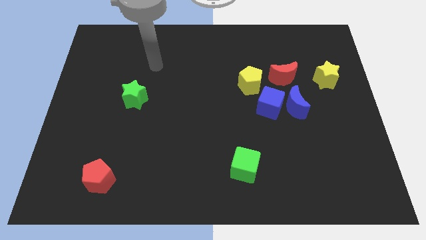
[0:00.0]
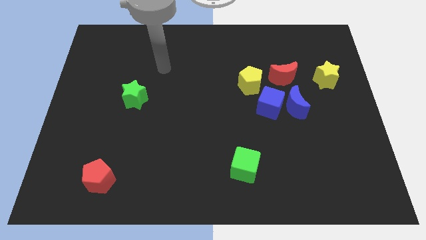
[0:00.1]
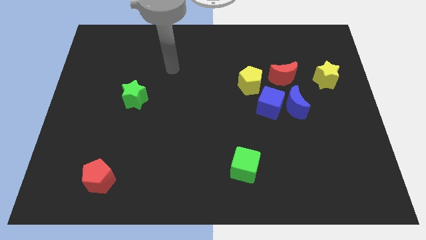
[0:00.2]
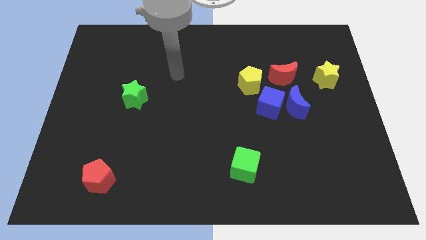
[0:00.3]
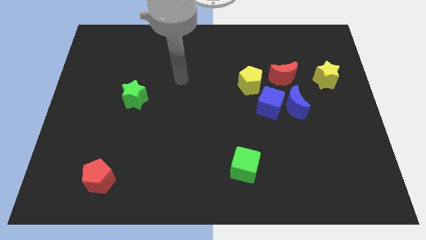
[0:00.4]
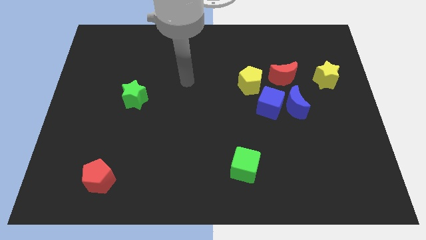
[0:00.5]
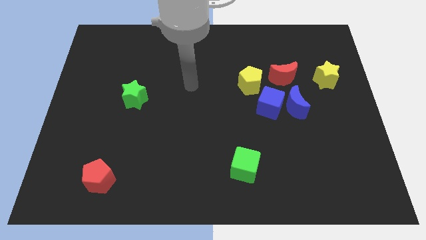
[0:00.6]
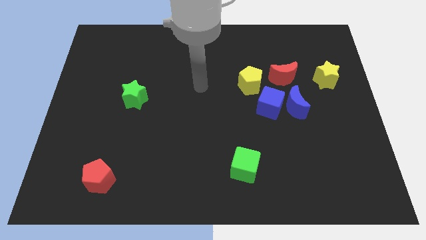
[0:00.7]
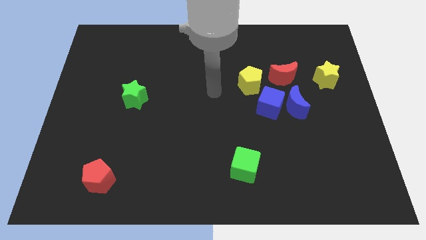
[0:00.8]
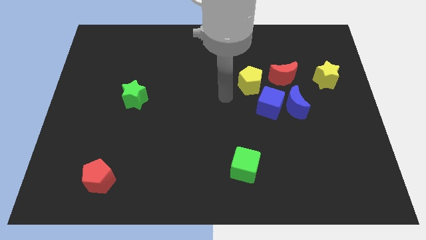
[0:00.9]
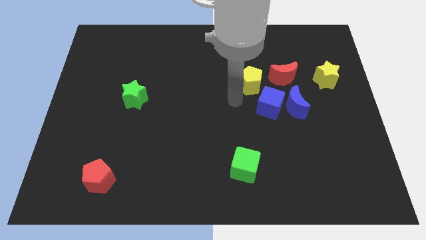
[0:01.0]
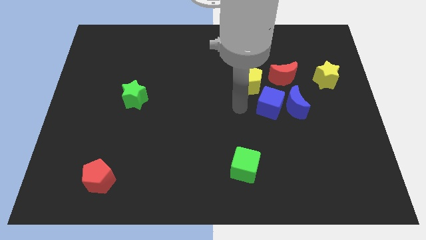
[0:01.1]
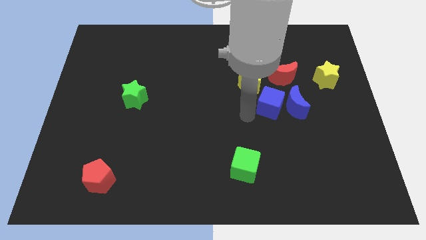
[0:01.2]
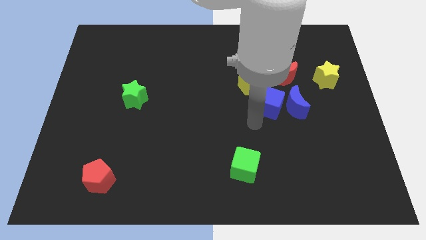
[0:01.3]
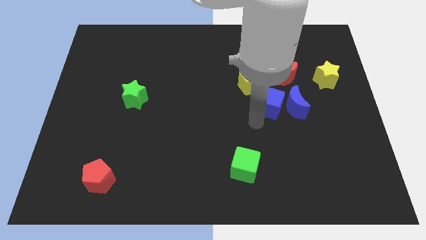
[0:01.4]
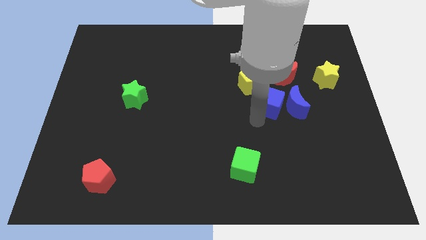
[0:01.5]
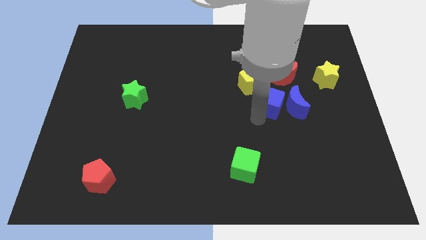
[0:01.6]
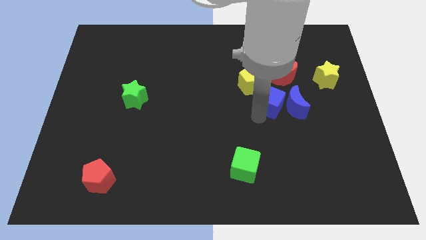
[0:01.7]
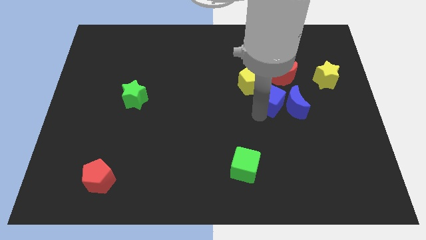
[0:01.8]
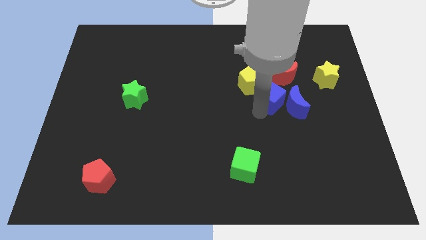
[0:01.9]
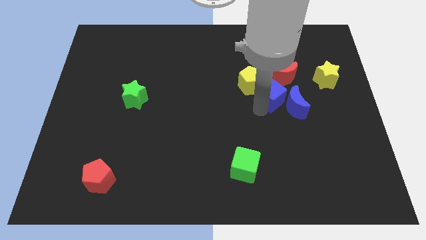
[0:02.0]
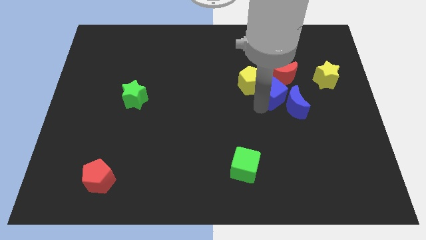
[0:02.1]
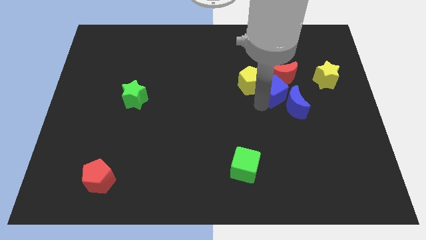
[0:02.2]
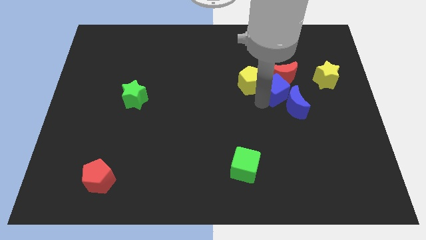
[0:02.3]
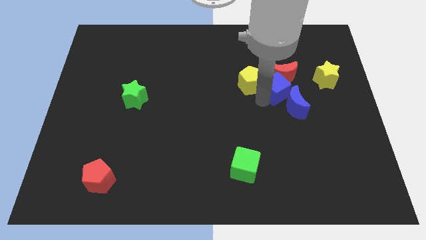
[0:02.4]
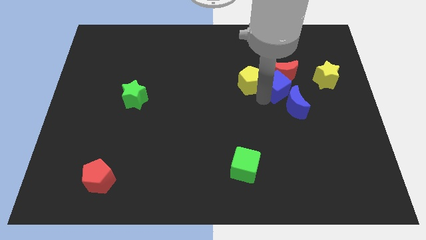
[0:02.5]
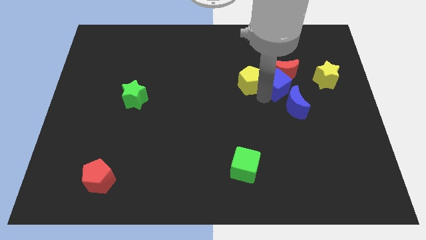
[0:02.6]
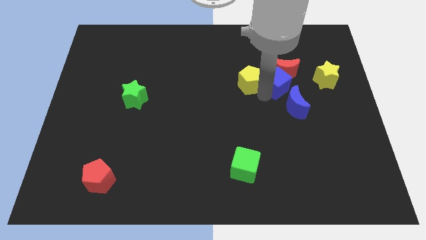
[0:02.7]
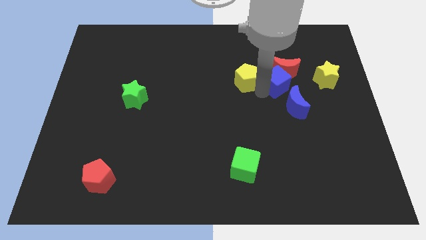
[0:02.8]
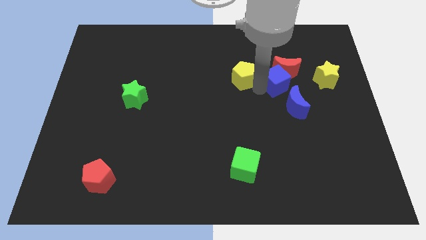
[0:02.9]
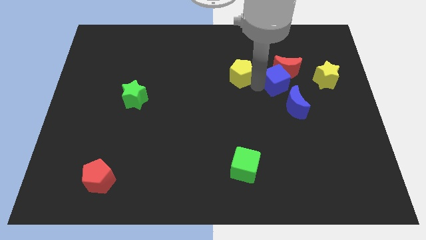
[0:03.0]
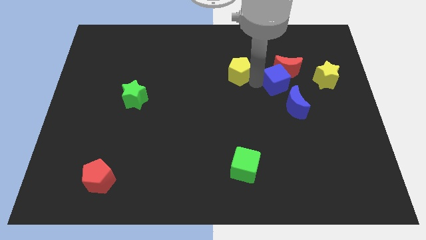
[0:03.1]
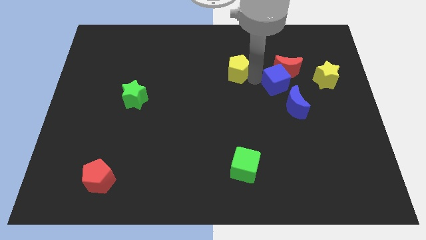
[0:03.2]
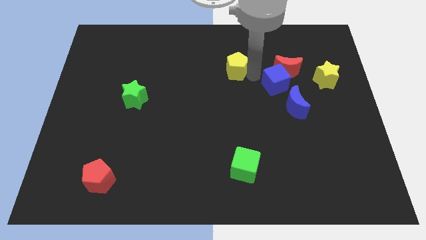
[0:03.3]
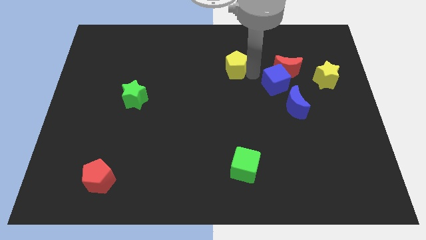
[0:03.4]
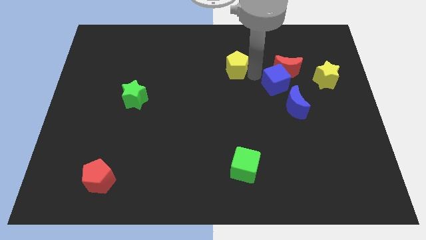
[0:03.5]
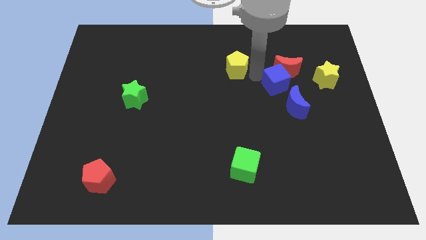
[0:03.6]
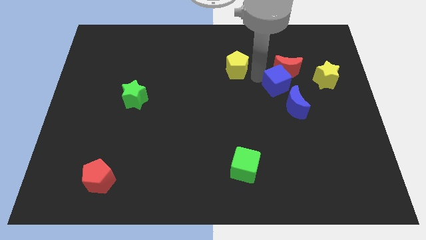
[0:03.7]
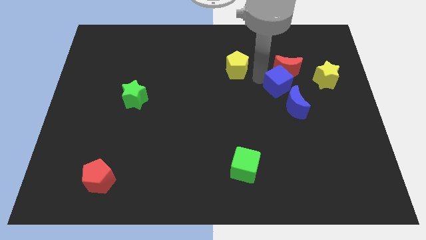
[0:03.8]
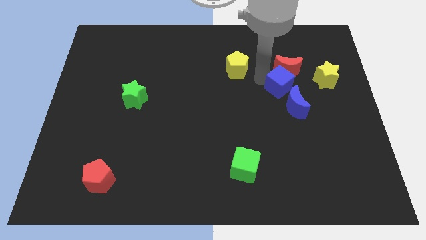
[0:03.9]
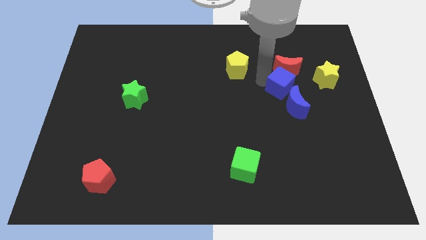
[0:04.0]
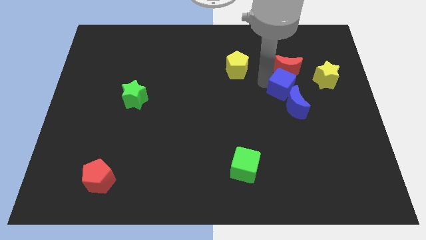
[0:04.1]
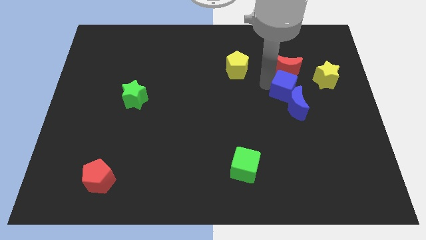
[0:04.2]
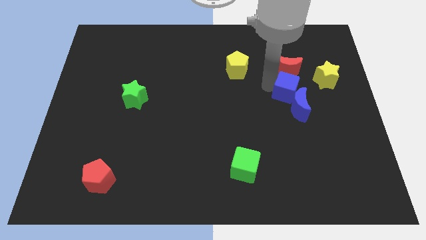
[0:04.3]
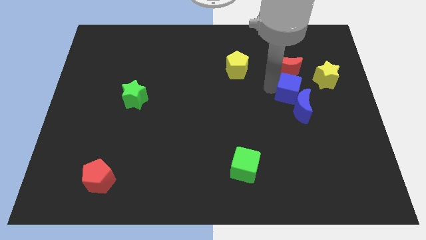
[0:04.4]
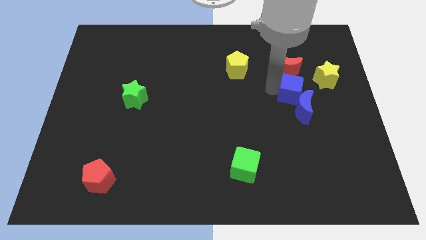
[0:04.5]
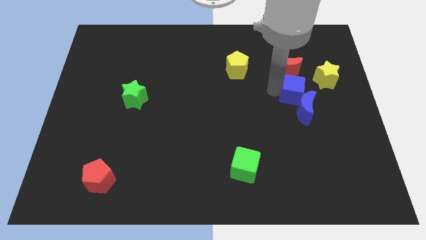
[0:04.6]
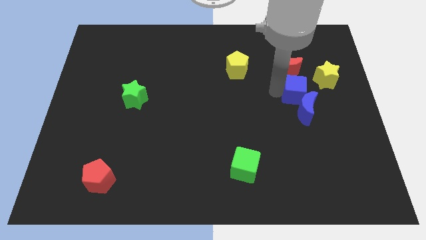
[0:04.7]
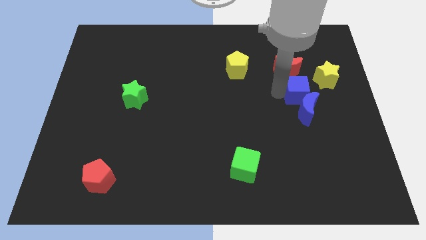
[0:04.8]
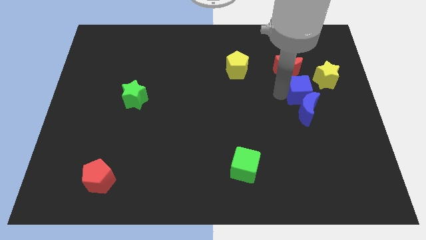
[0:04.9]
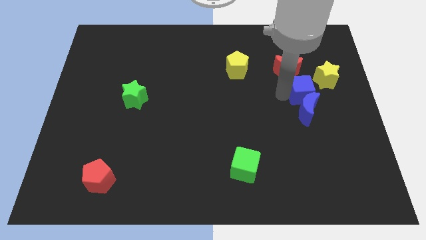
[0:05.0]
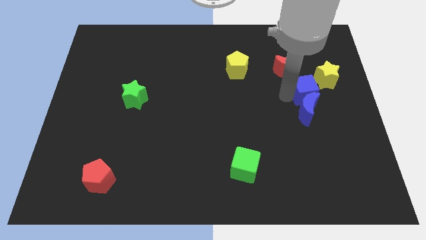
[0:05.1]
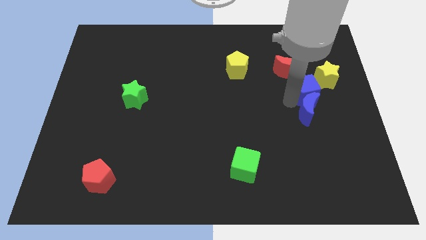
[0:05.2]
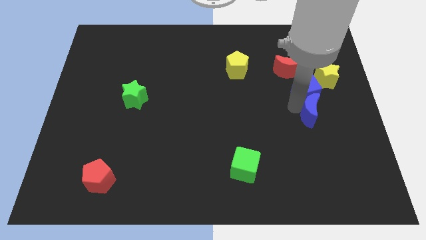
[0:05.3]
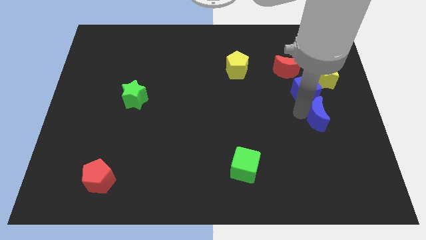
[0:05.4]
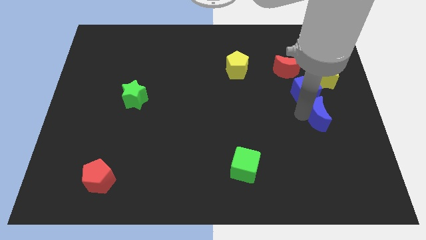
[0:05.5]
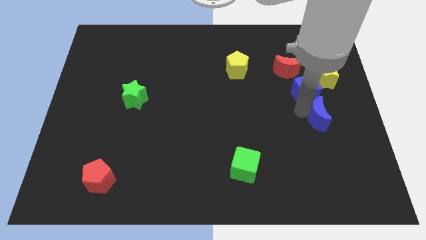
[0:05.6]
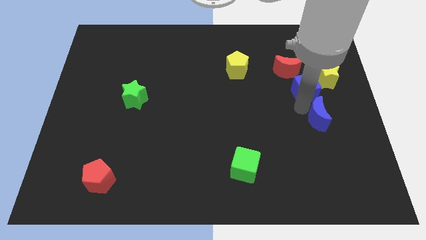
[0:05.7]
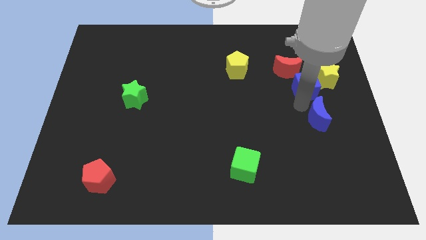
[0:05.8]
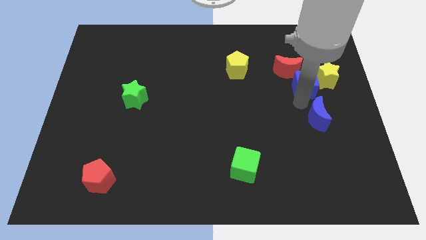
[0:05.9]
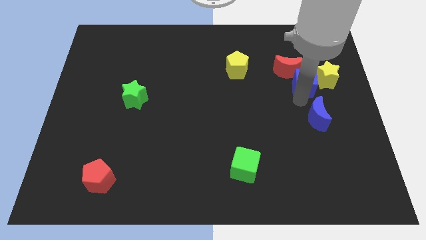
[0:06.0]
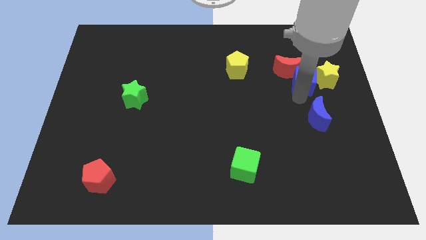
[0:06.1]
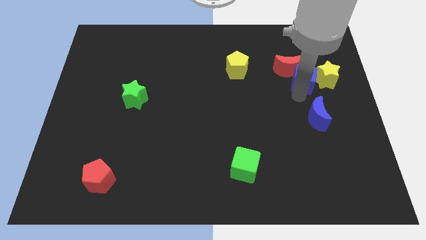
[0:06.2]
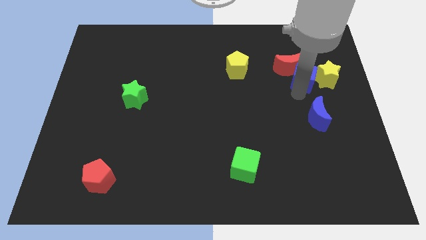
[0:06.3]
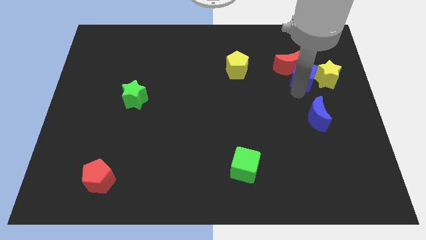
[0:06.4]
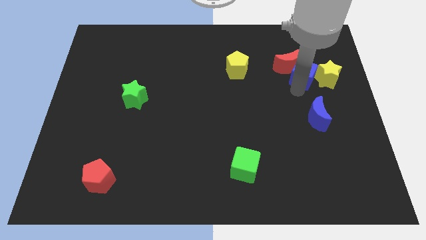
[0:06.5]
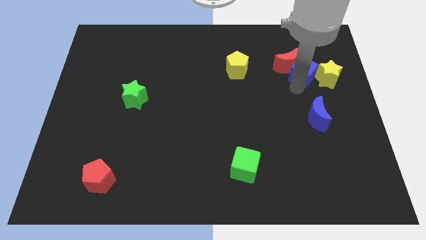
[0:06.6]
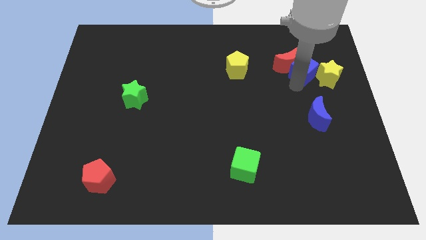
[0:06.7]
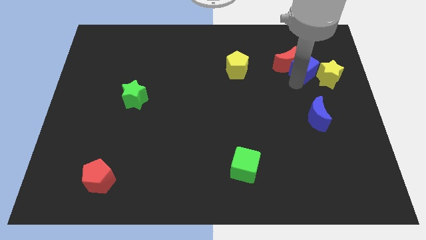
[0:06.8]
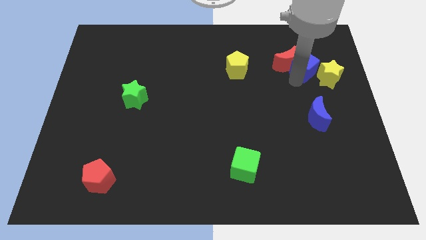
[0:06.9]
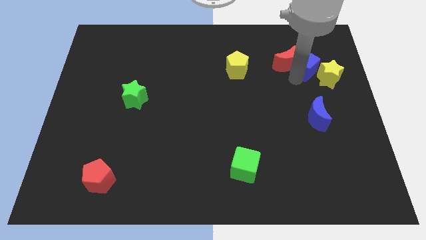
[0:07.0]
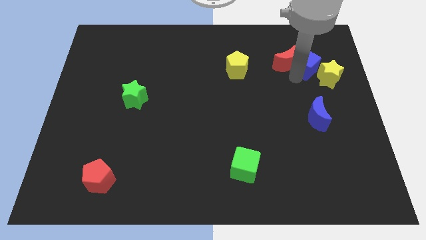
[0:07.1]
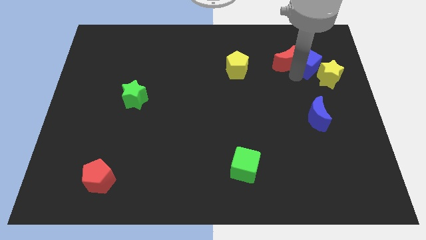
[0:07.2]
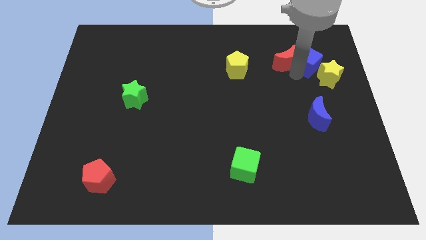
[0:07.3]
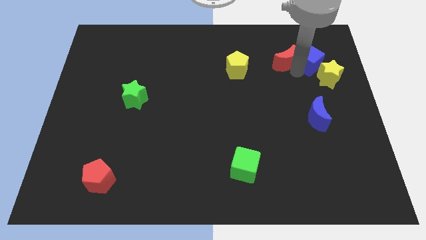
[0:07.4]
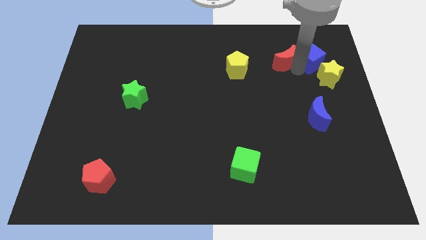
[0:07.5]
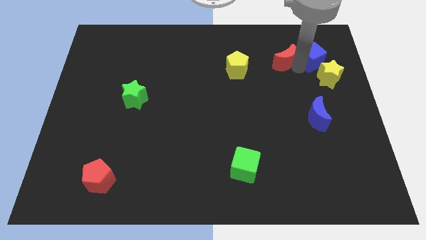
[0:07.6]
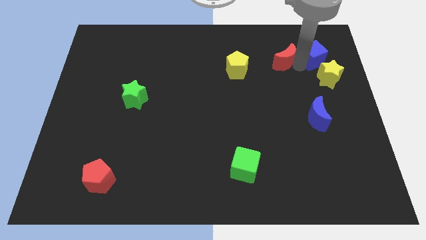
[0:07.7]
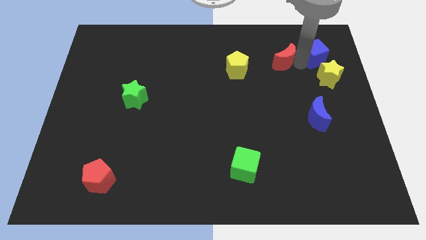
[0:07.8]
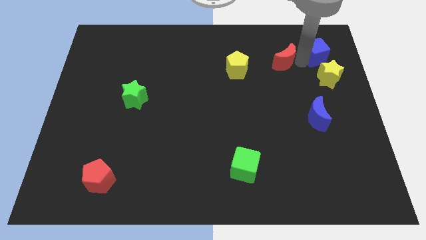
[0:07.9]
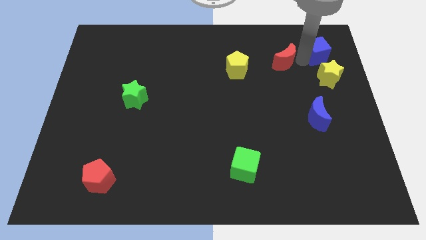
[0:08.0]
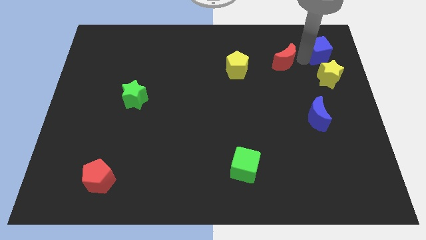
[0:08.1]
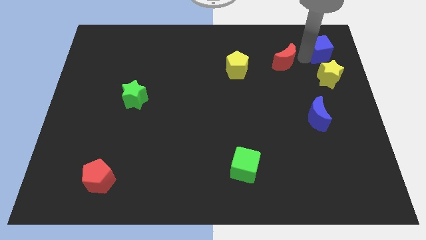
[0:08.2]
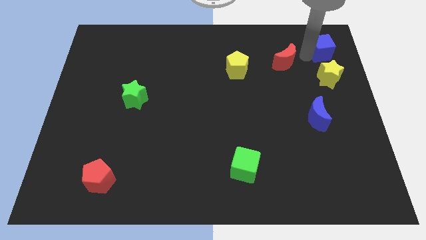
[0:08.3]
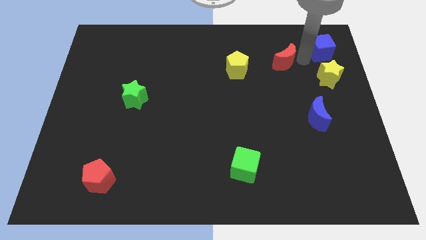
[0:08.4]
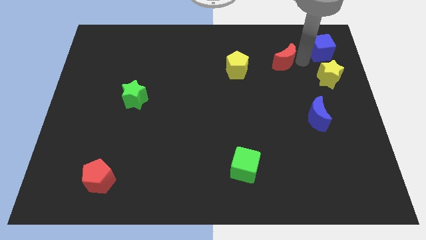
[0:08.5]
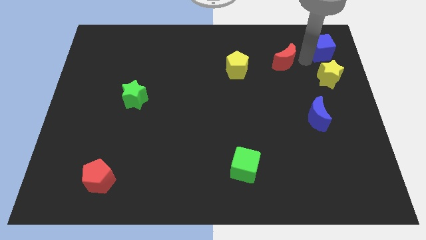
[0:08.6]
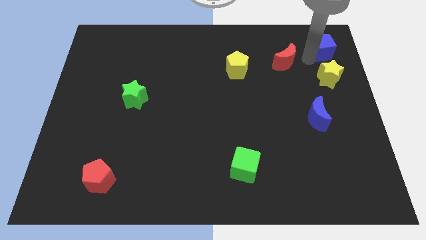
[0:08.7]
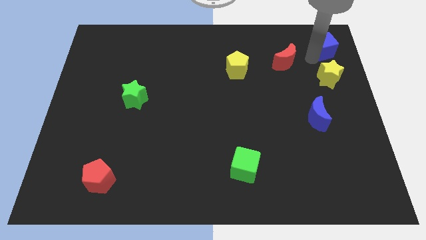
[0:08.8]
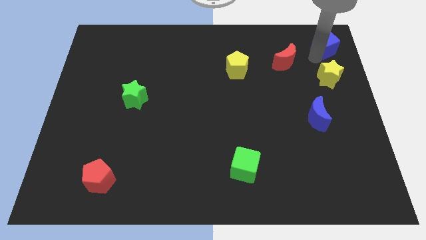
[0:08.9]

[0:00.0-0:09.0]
push the blue cube to the top right corner
